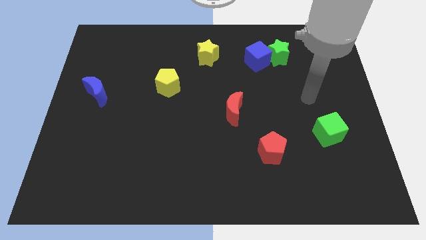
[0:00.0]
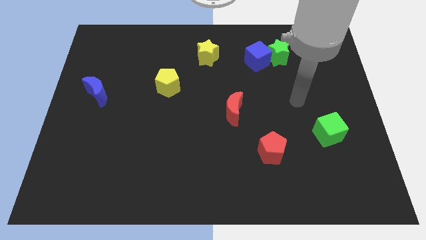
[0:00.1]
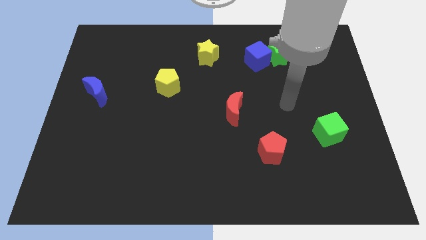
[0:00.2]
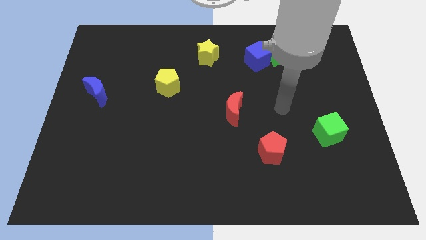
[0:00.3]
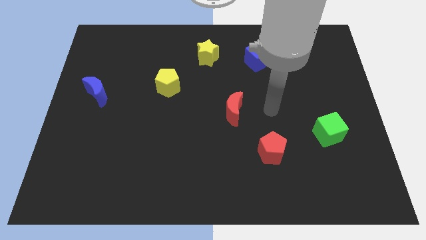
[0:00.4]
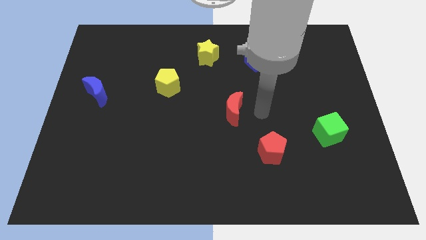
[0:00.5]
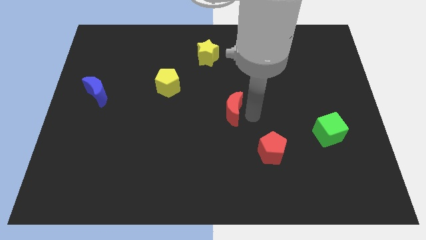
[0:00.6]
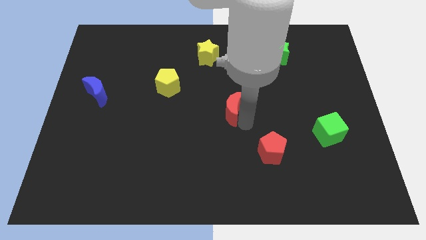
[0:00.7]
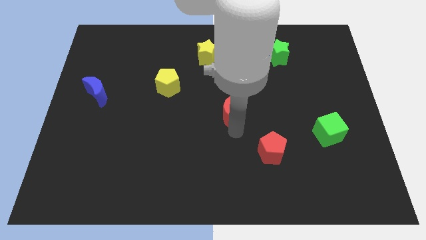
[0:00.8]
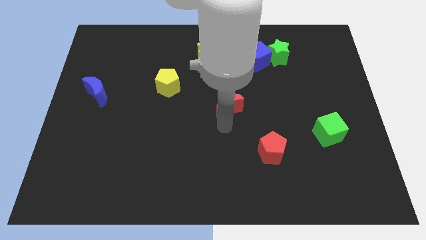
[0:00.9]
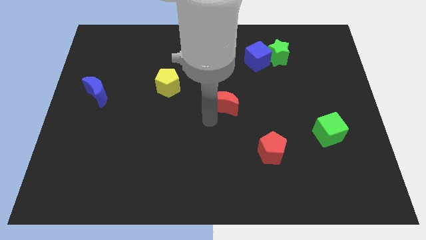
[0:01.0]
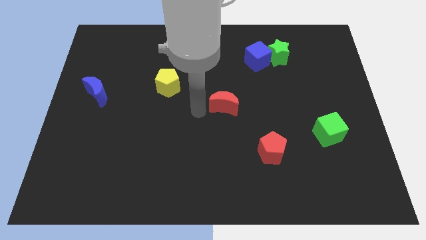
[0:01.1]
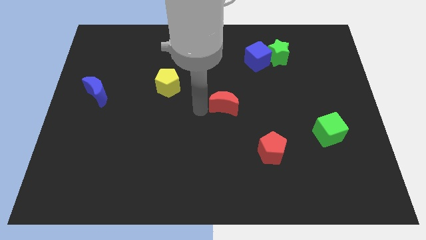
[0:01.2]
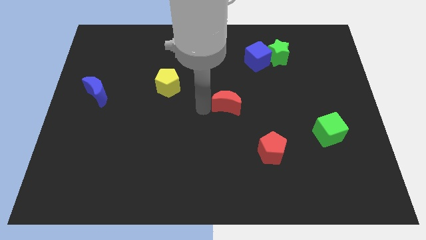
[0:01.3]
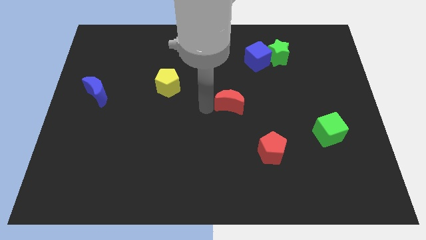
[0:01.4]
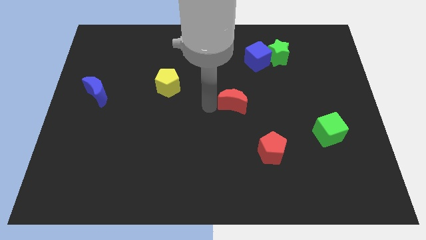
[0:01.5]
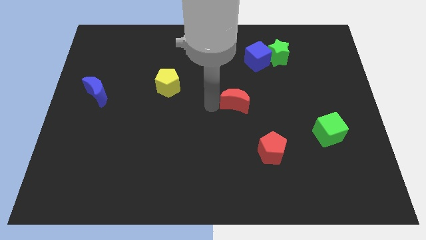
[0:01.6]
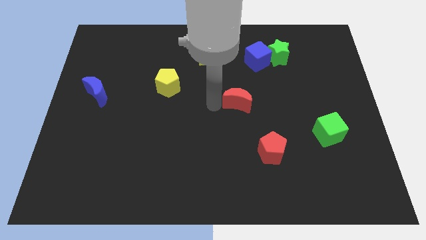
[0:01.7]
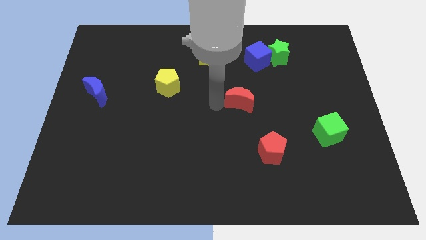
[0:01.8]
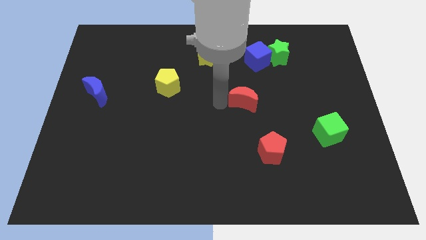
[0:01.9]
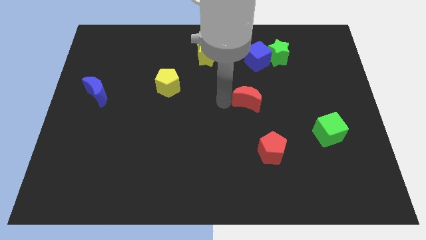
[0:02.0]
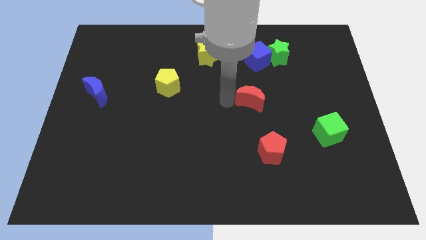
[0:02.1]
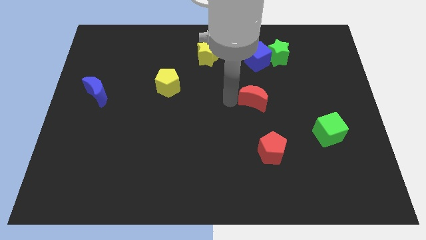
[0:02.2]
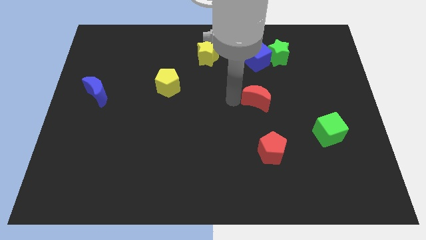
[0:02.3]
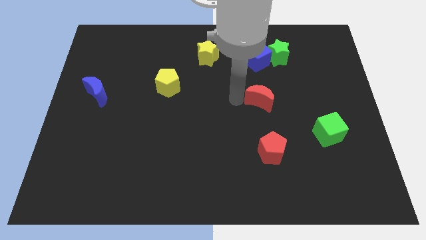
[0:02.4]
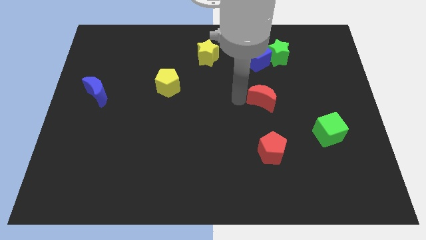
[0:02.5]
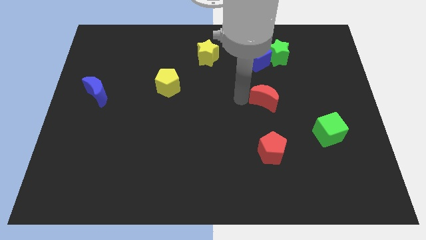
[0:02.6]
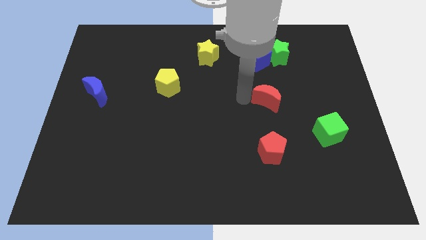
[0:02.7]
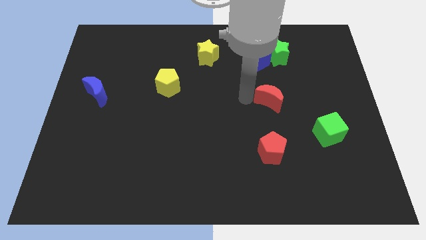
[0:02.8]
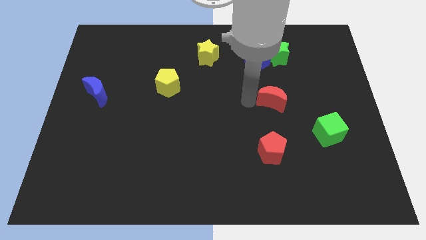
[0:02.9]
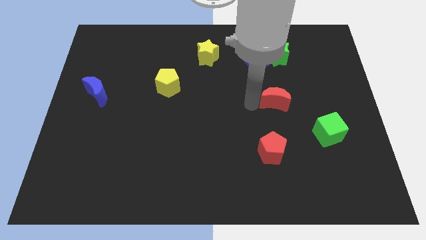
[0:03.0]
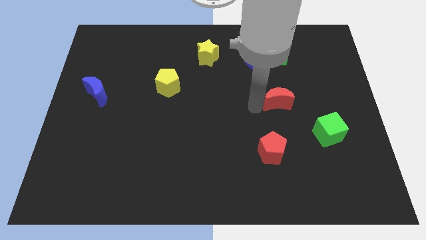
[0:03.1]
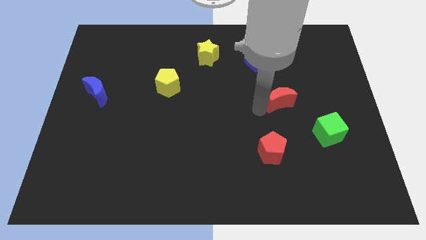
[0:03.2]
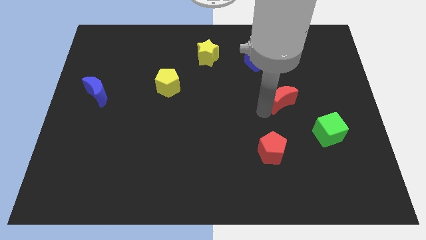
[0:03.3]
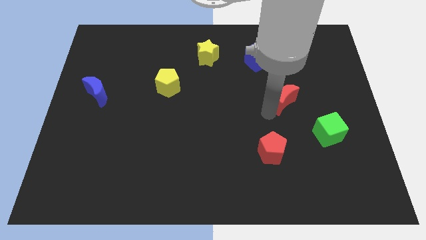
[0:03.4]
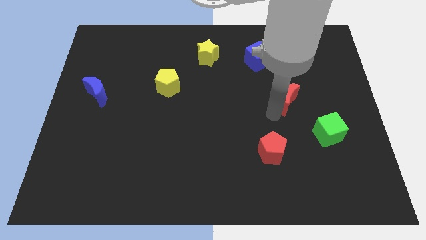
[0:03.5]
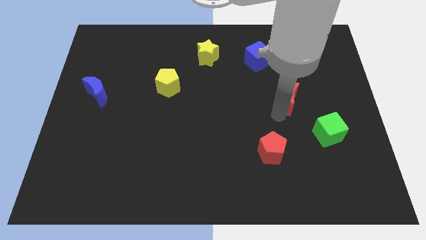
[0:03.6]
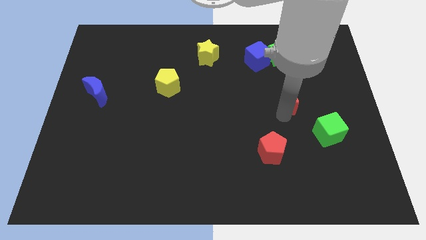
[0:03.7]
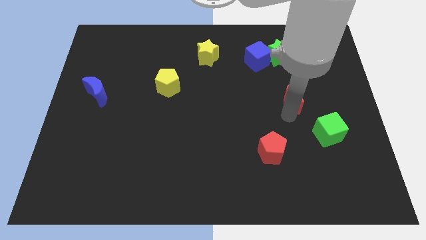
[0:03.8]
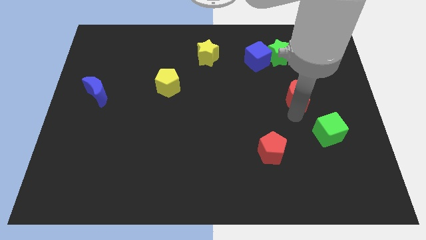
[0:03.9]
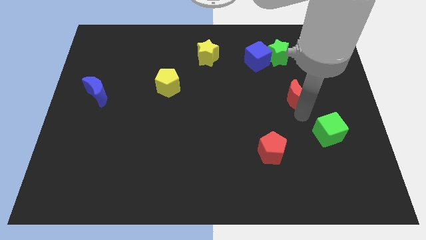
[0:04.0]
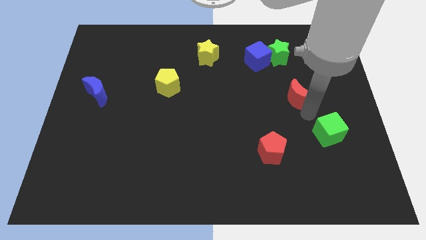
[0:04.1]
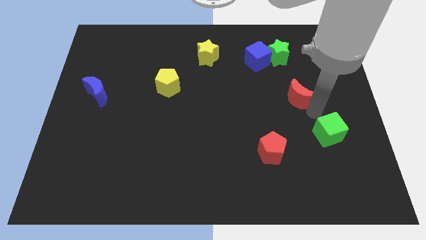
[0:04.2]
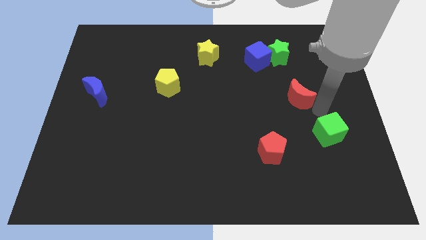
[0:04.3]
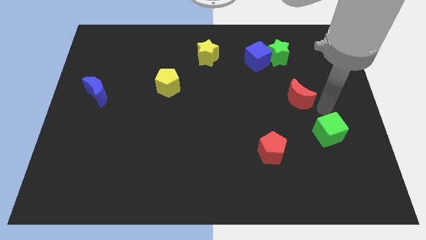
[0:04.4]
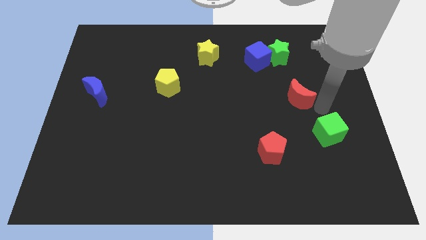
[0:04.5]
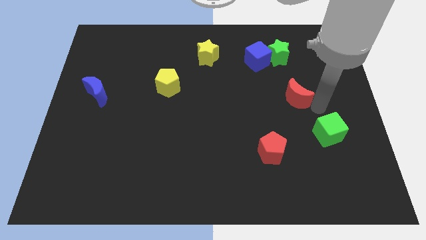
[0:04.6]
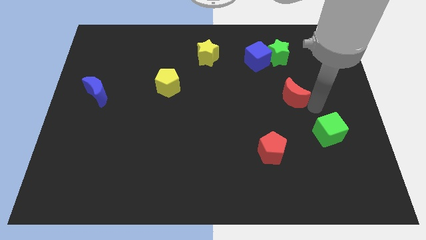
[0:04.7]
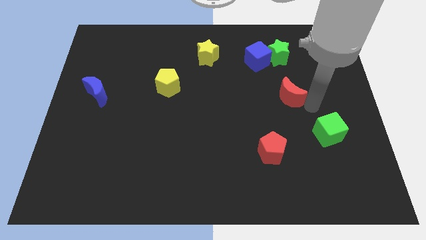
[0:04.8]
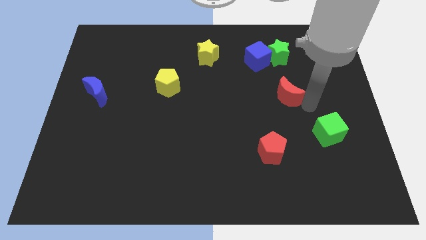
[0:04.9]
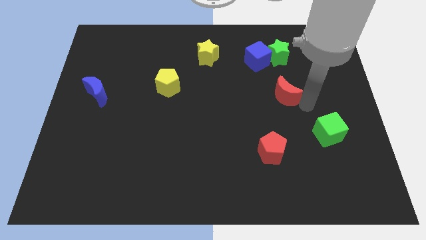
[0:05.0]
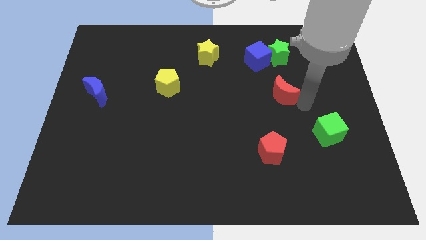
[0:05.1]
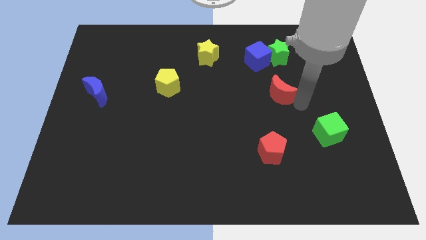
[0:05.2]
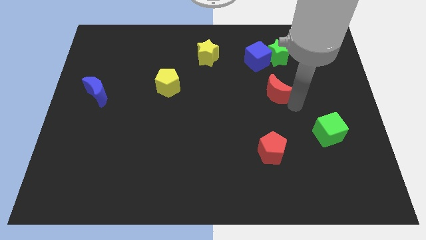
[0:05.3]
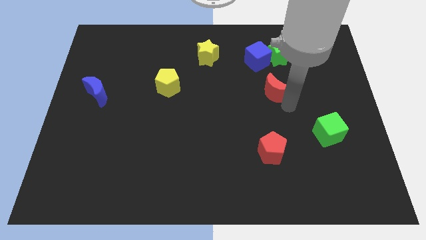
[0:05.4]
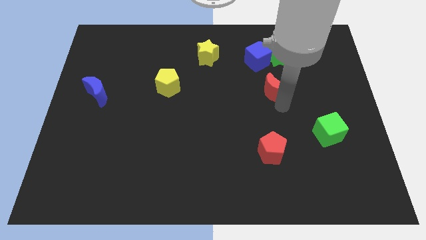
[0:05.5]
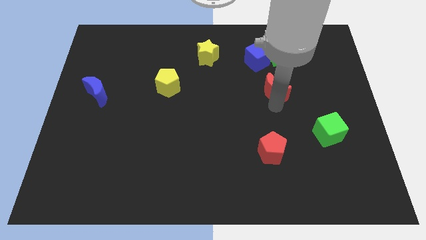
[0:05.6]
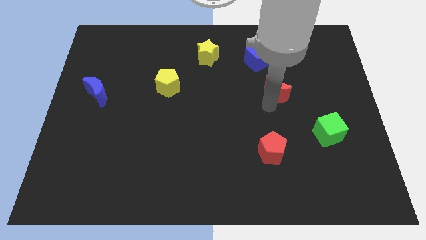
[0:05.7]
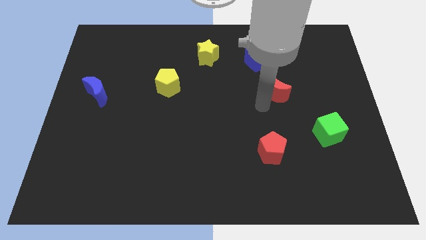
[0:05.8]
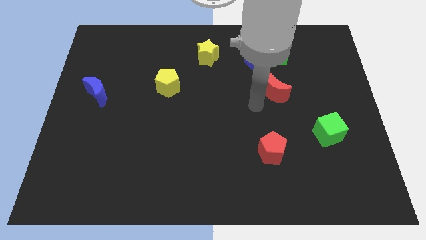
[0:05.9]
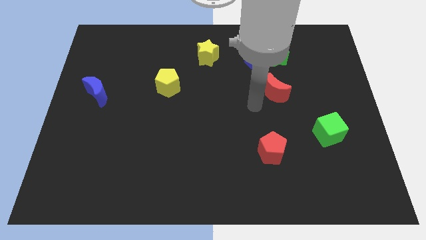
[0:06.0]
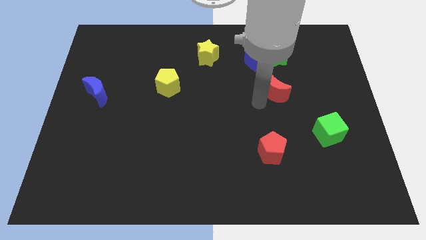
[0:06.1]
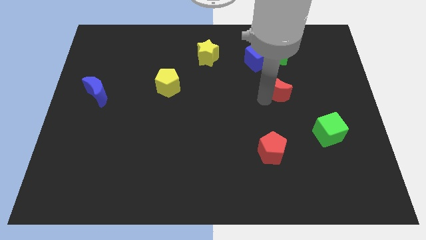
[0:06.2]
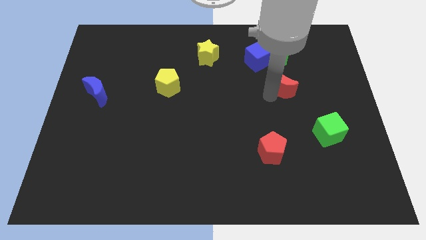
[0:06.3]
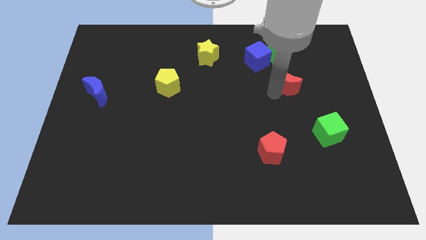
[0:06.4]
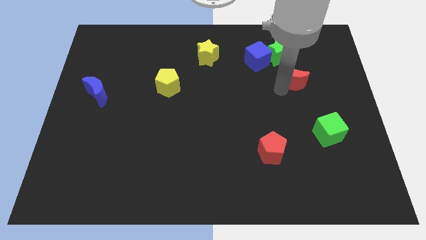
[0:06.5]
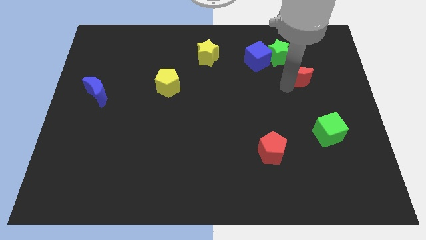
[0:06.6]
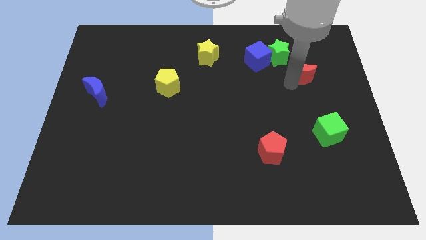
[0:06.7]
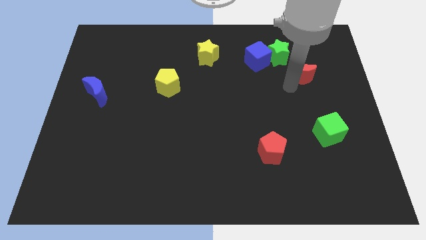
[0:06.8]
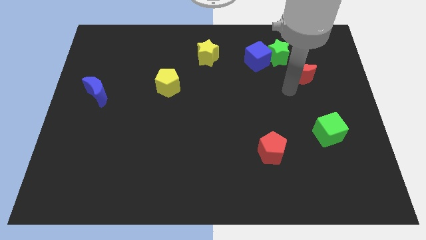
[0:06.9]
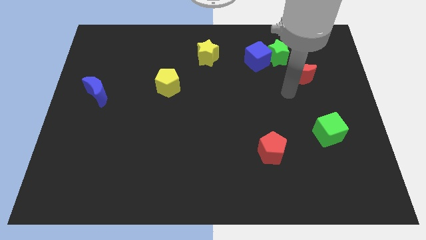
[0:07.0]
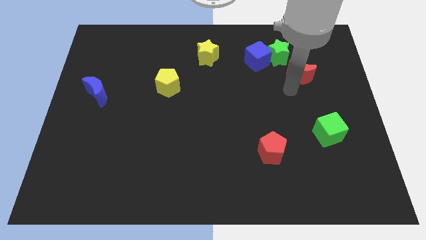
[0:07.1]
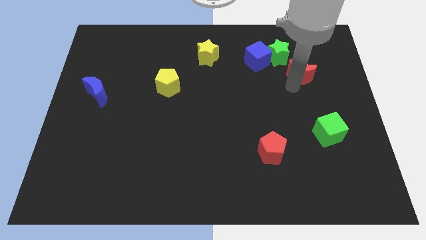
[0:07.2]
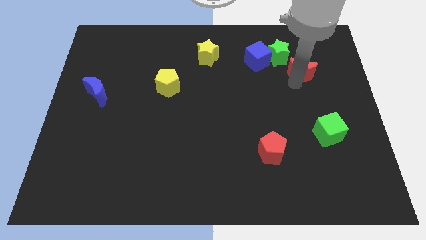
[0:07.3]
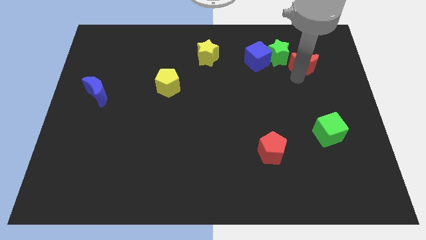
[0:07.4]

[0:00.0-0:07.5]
push the red moon right of the green star
